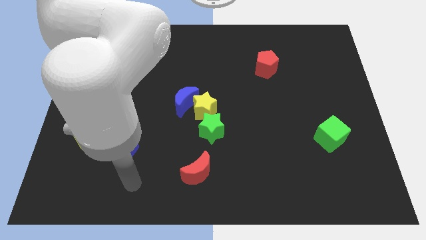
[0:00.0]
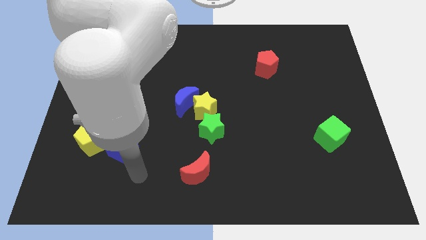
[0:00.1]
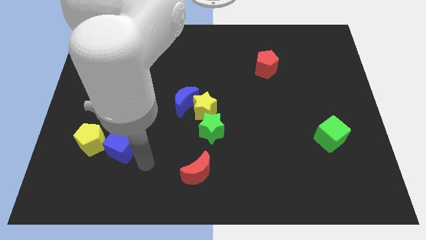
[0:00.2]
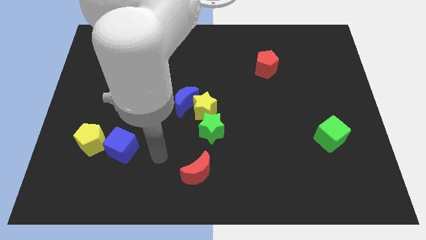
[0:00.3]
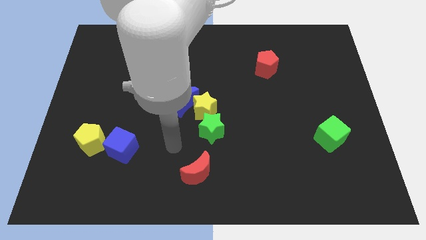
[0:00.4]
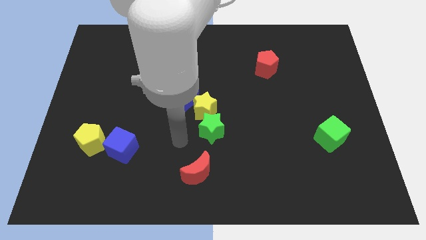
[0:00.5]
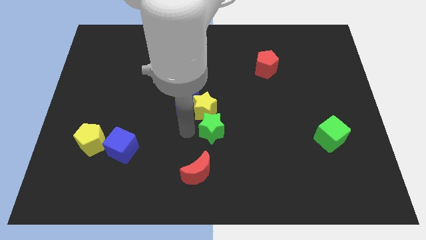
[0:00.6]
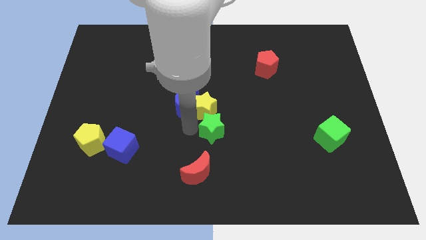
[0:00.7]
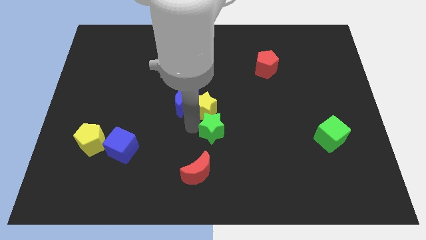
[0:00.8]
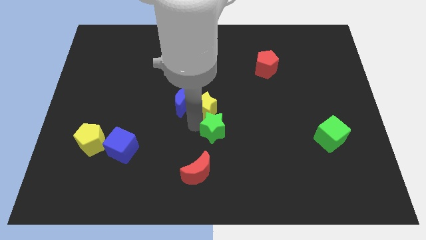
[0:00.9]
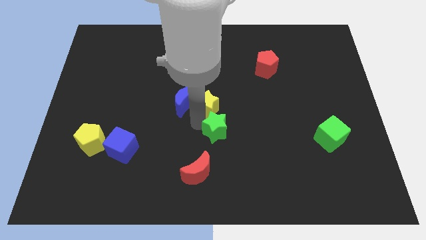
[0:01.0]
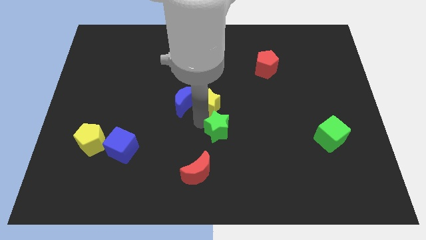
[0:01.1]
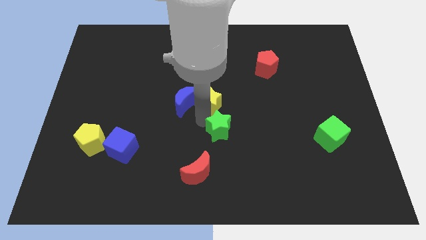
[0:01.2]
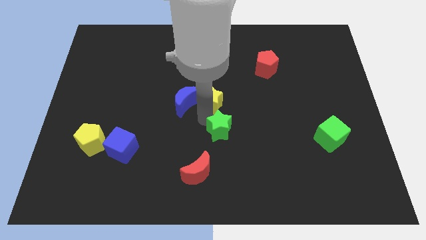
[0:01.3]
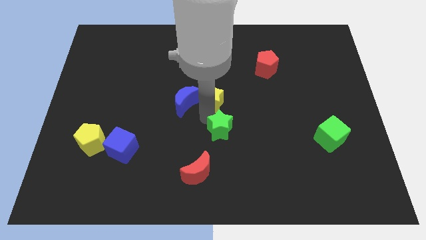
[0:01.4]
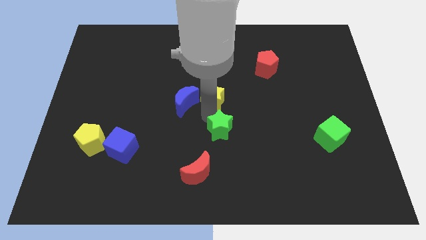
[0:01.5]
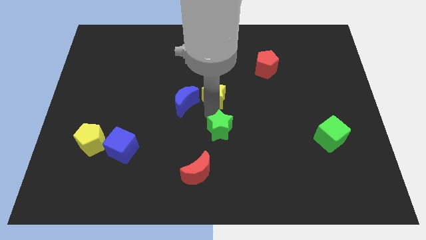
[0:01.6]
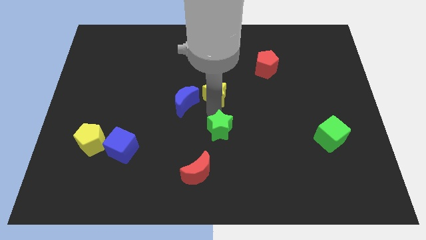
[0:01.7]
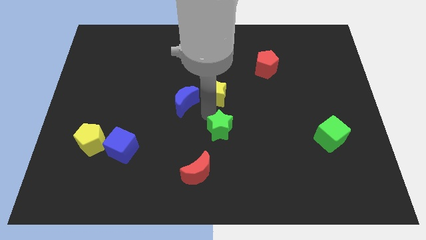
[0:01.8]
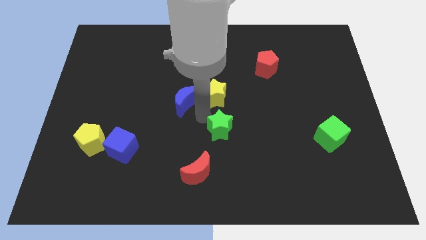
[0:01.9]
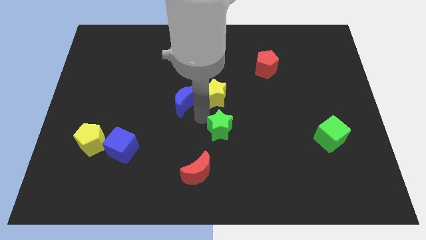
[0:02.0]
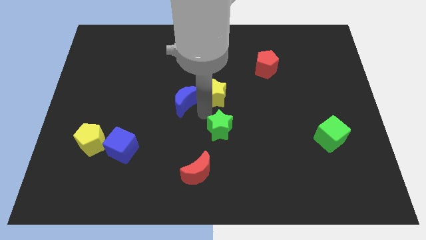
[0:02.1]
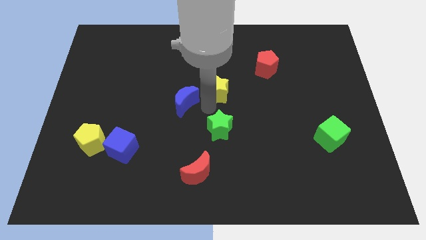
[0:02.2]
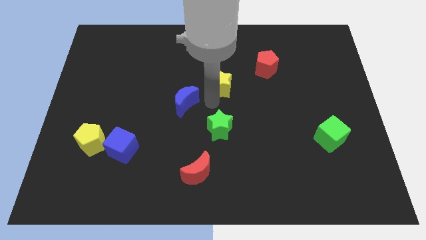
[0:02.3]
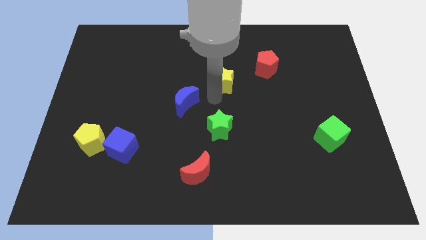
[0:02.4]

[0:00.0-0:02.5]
pull the yellow star apart from the blue moon and green star

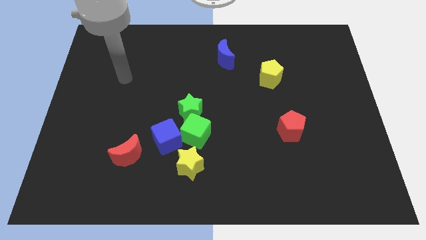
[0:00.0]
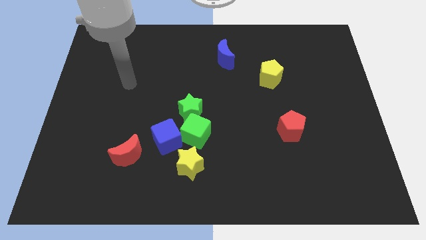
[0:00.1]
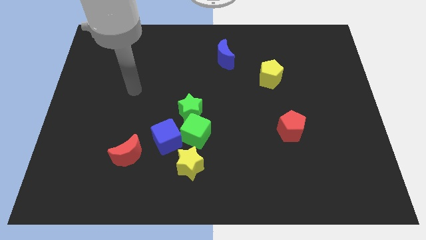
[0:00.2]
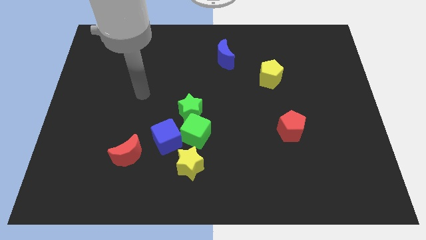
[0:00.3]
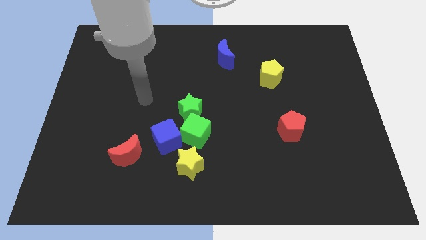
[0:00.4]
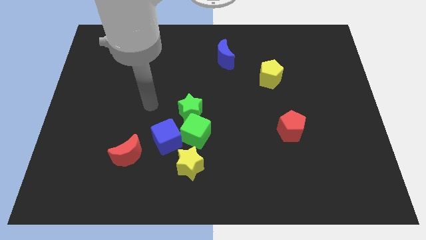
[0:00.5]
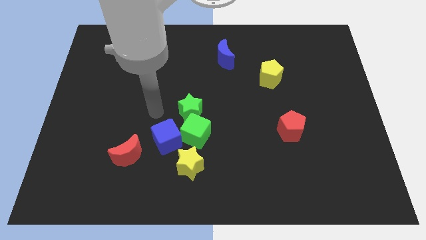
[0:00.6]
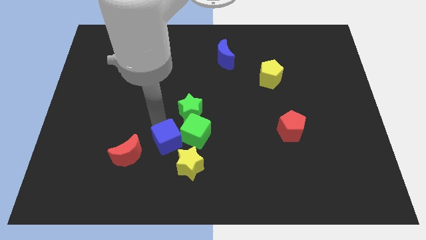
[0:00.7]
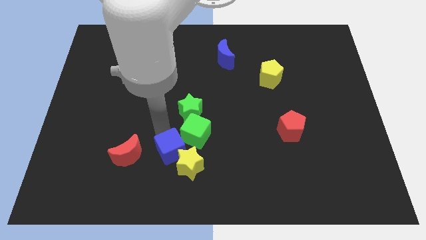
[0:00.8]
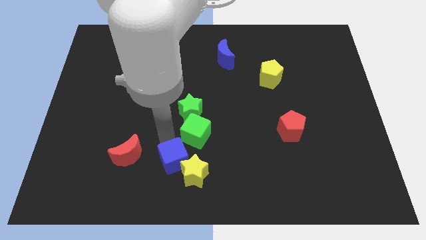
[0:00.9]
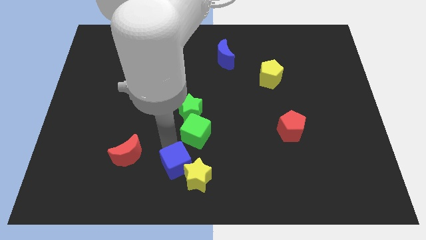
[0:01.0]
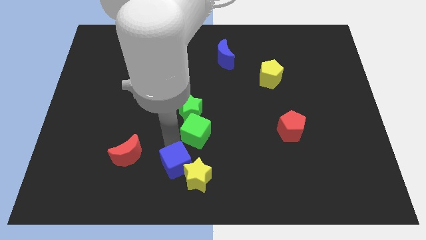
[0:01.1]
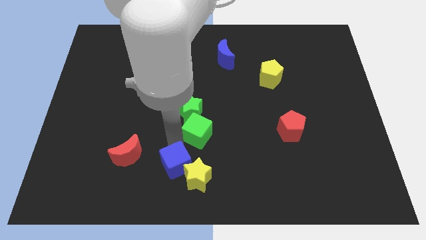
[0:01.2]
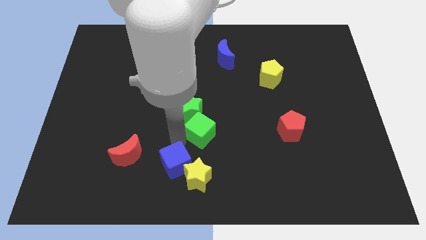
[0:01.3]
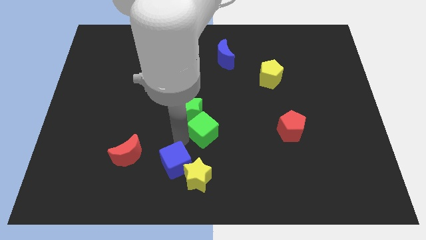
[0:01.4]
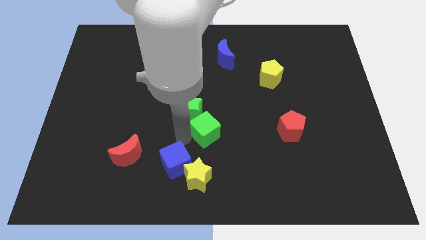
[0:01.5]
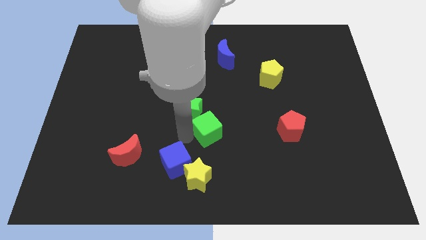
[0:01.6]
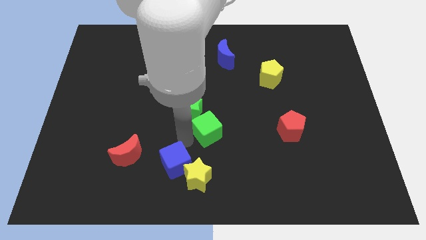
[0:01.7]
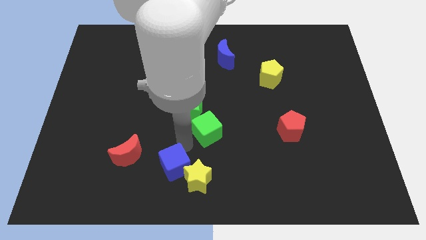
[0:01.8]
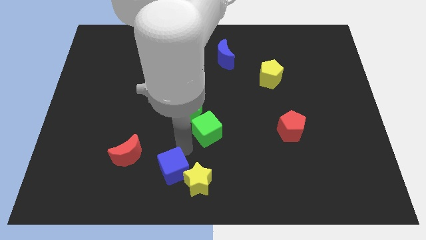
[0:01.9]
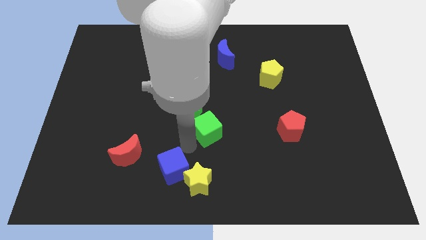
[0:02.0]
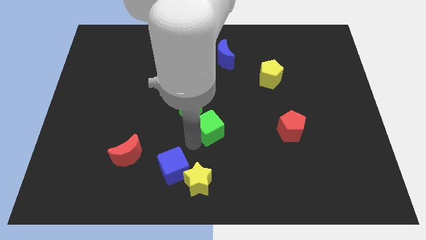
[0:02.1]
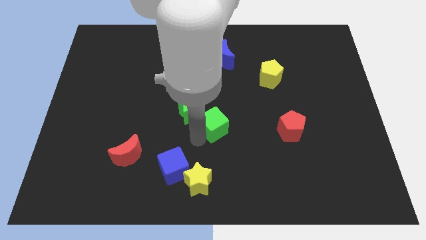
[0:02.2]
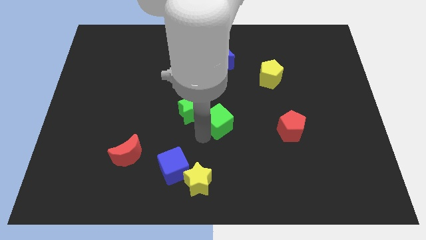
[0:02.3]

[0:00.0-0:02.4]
separate the green cube from the green star, blue cube, and yellow star

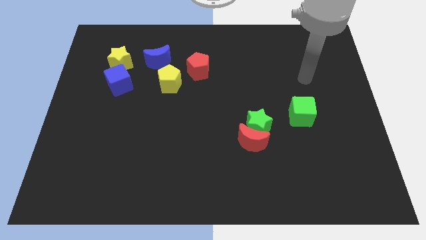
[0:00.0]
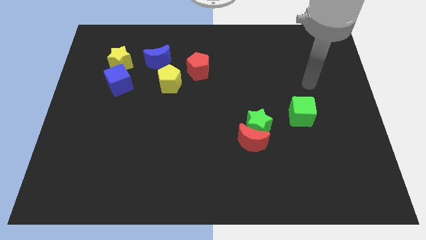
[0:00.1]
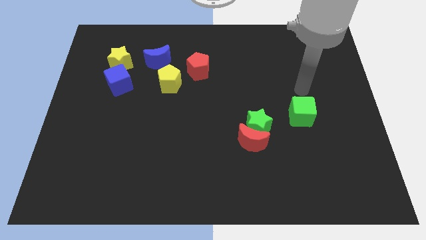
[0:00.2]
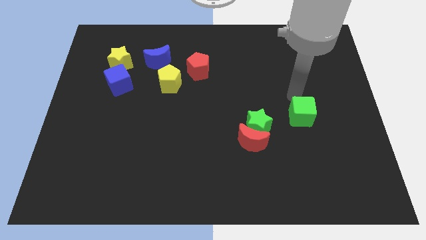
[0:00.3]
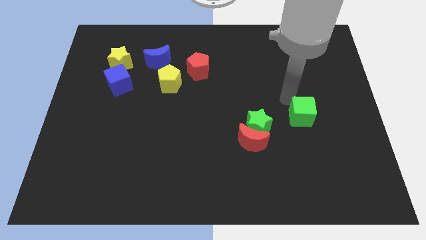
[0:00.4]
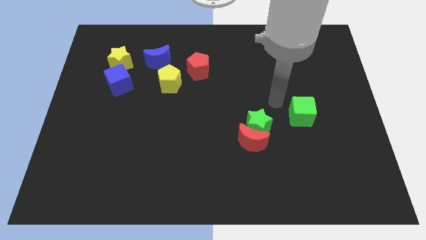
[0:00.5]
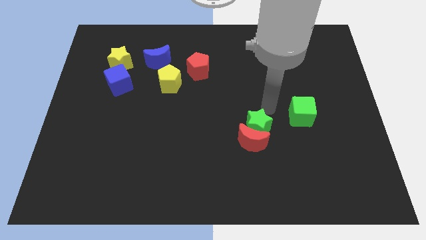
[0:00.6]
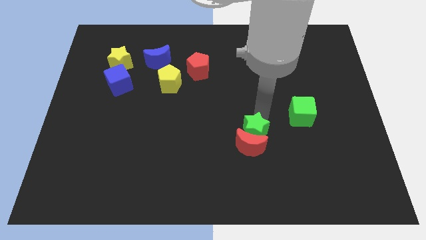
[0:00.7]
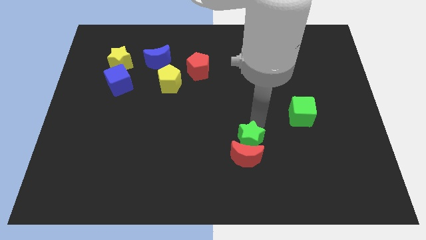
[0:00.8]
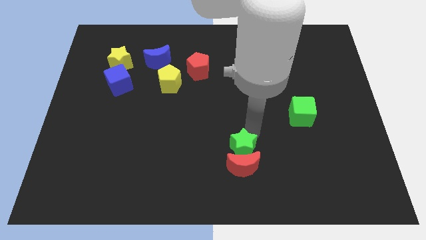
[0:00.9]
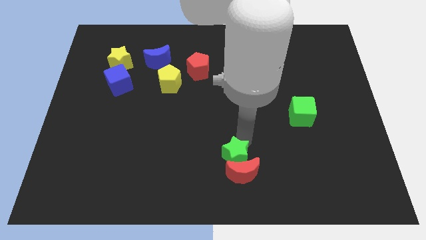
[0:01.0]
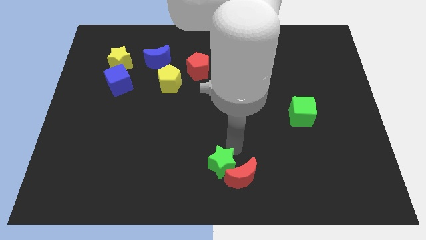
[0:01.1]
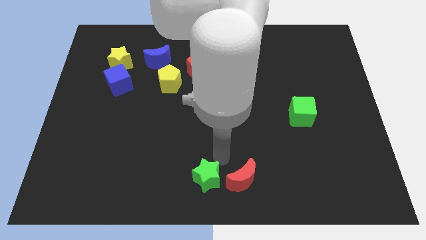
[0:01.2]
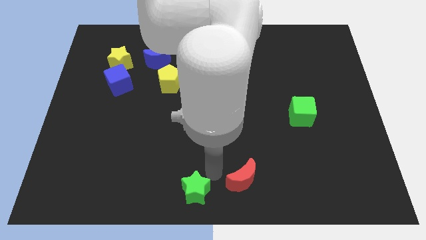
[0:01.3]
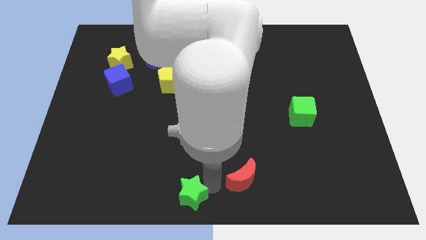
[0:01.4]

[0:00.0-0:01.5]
separate the red moon from the green star

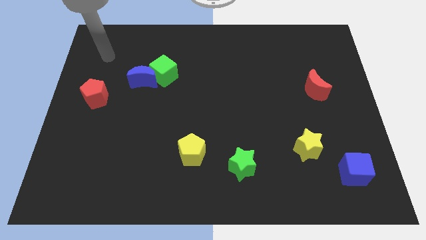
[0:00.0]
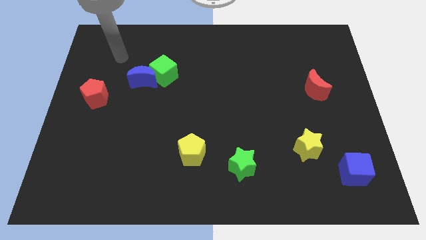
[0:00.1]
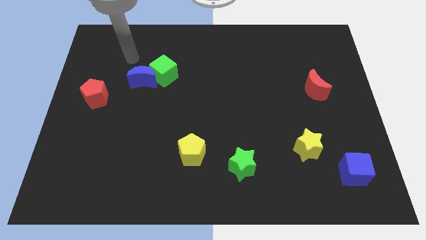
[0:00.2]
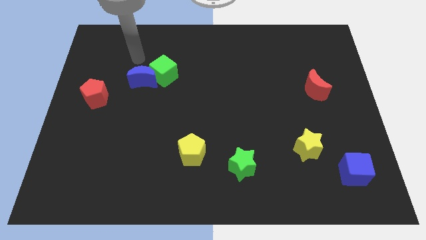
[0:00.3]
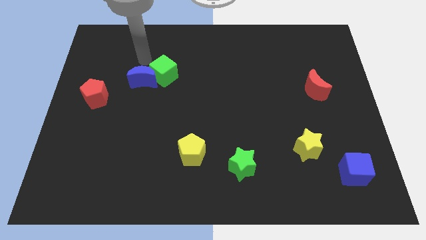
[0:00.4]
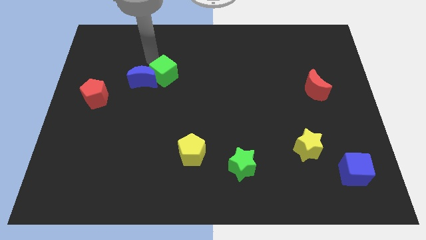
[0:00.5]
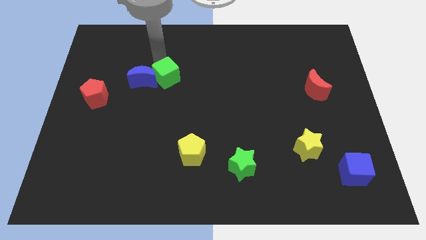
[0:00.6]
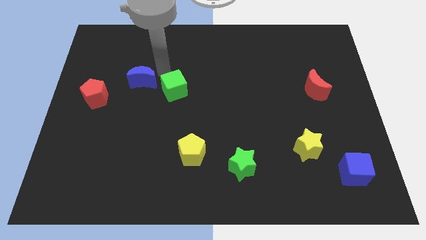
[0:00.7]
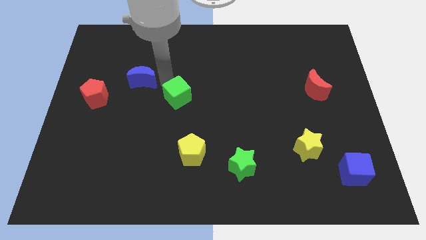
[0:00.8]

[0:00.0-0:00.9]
pull the blue moon apart from the green cube

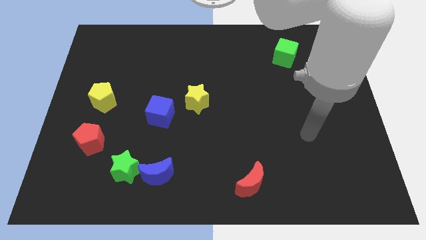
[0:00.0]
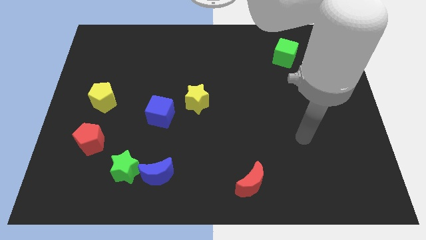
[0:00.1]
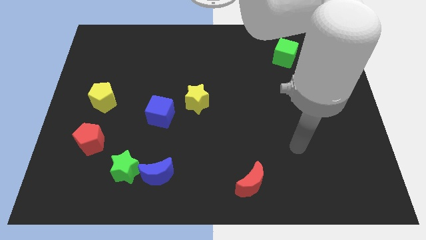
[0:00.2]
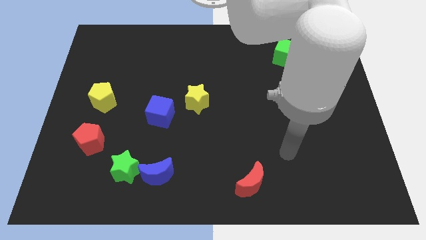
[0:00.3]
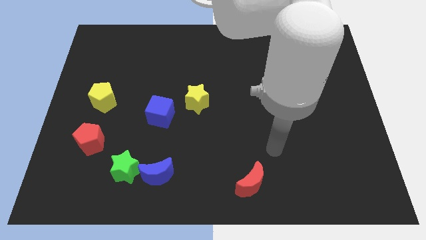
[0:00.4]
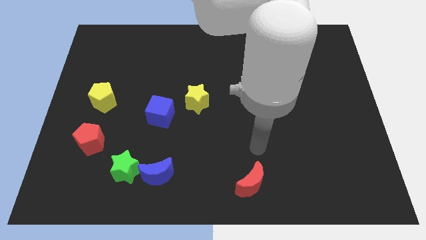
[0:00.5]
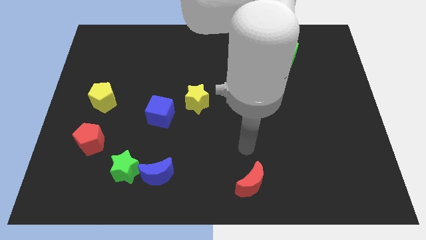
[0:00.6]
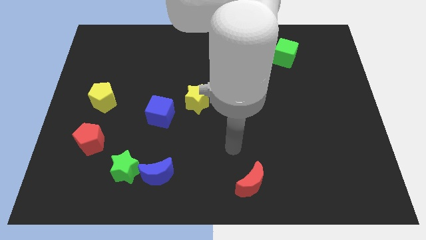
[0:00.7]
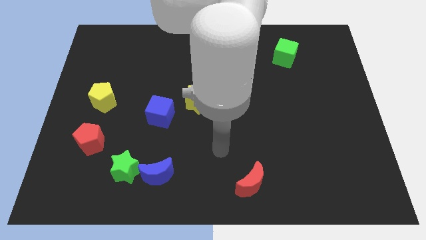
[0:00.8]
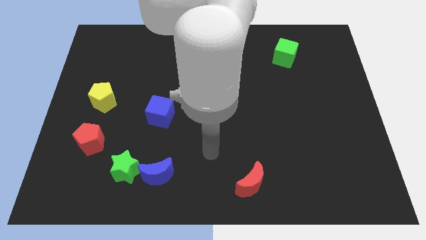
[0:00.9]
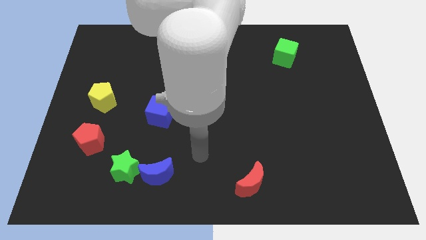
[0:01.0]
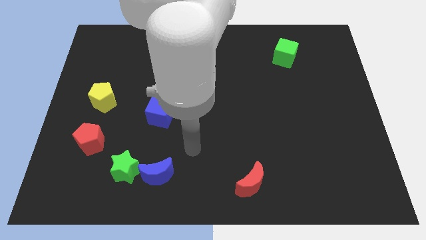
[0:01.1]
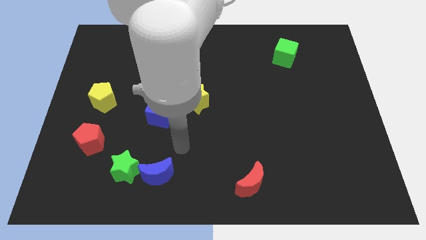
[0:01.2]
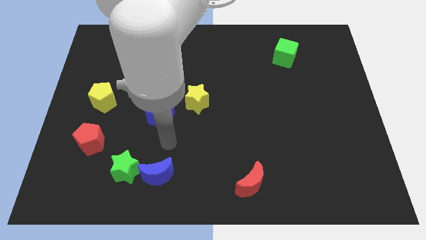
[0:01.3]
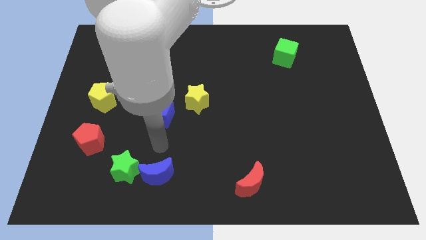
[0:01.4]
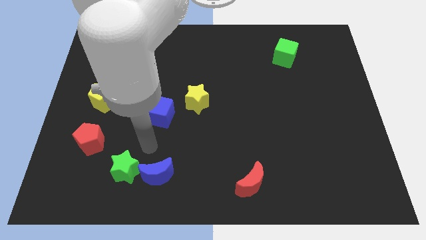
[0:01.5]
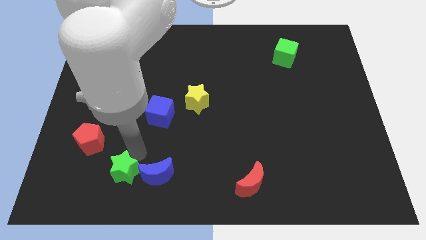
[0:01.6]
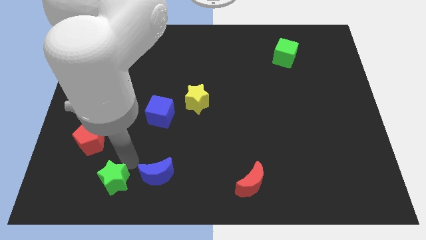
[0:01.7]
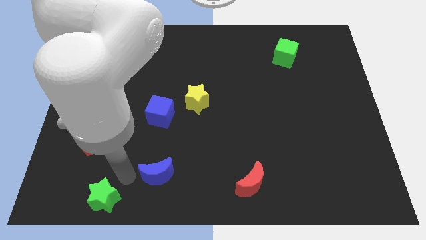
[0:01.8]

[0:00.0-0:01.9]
move the blue moon away from the green star

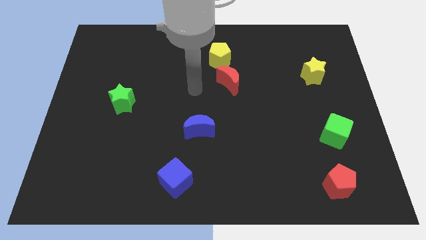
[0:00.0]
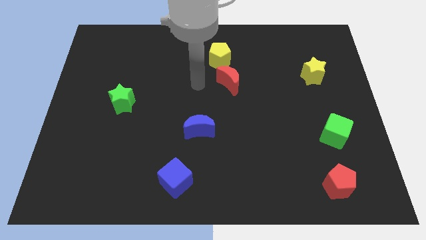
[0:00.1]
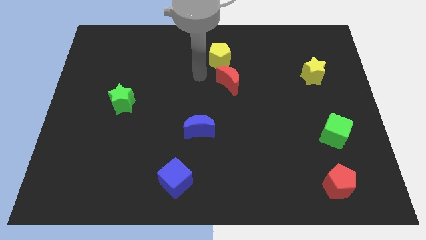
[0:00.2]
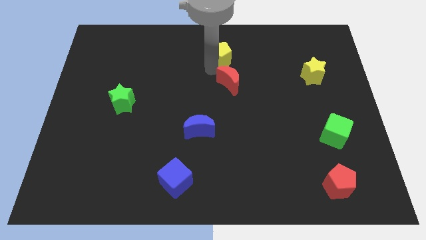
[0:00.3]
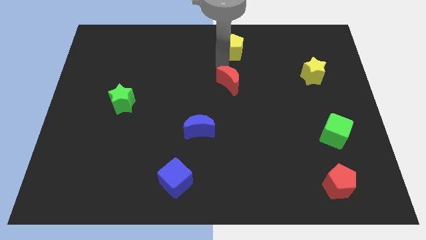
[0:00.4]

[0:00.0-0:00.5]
move the red moon away from the yellow pentagon
